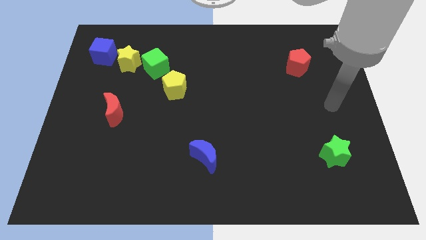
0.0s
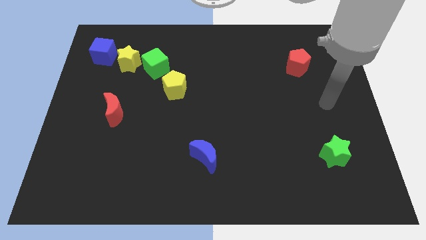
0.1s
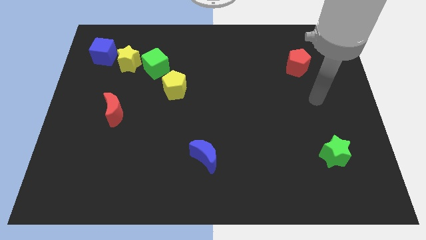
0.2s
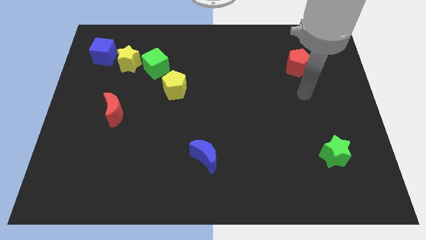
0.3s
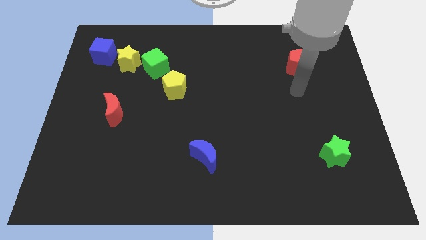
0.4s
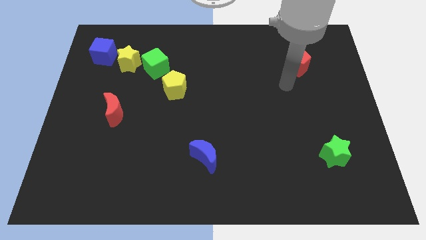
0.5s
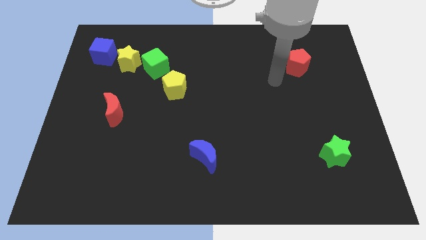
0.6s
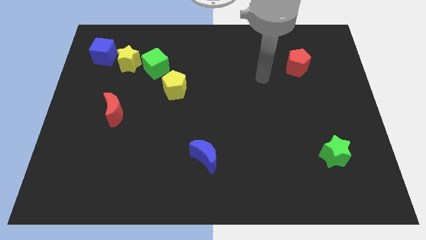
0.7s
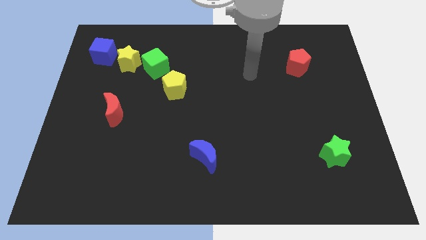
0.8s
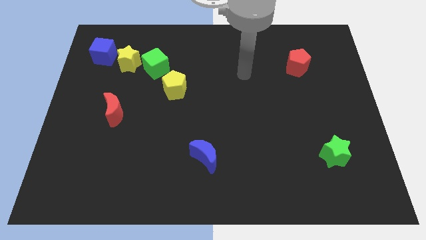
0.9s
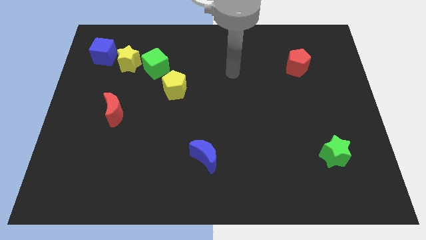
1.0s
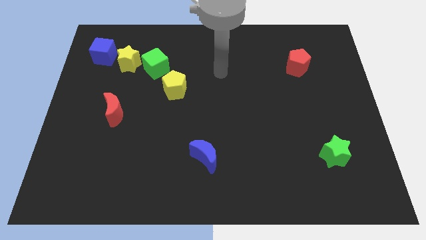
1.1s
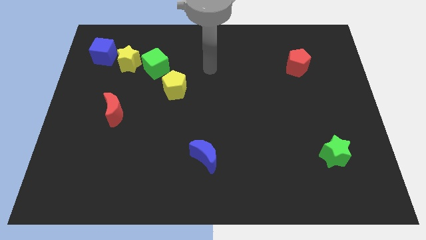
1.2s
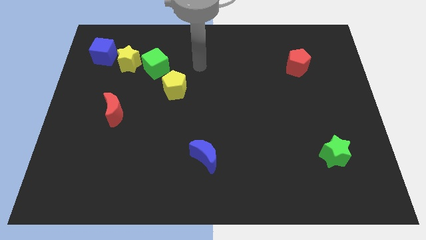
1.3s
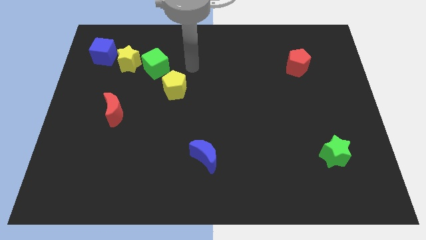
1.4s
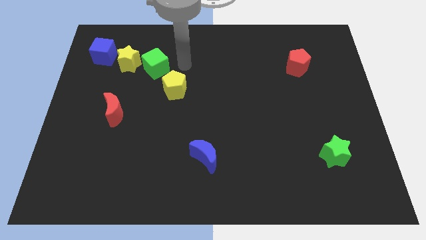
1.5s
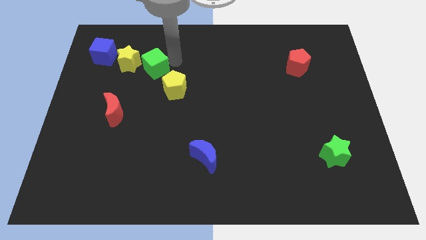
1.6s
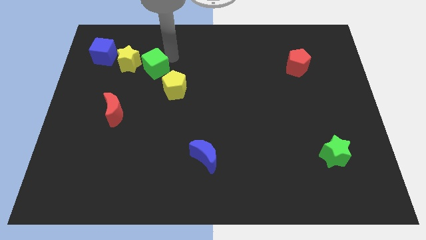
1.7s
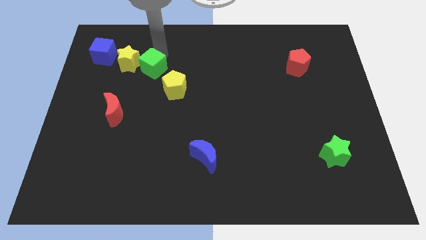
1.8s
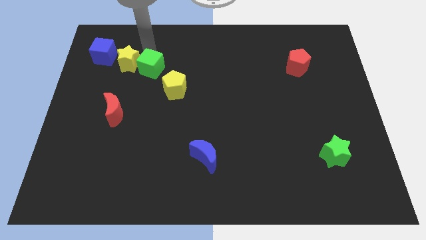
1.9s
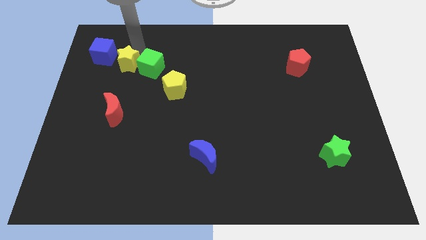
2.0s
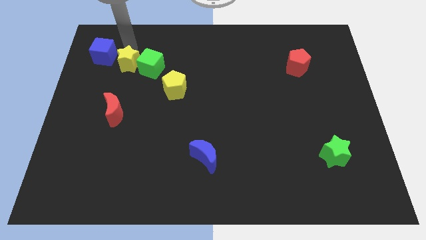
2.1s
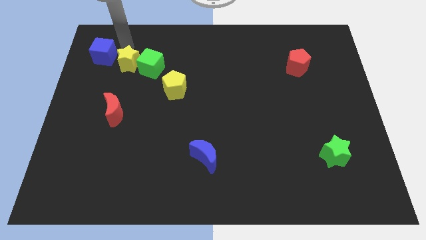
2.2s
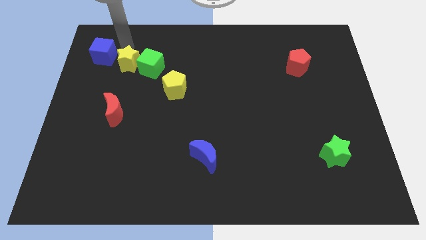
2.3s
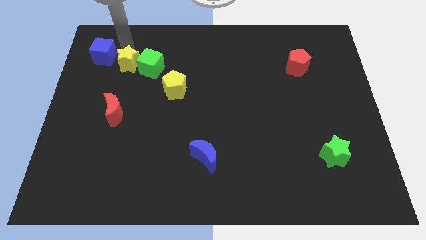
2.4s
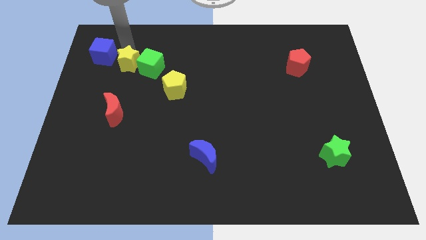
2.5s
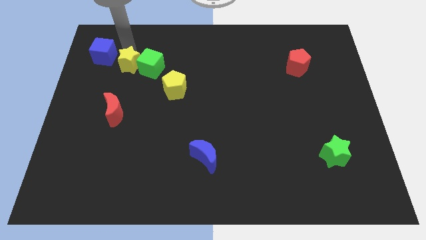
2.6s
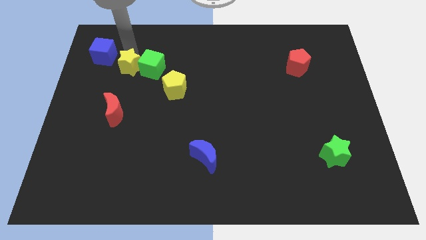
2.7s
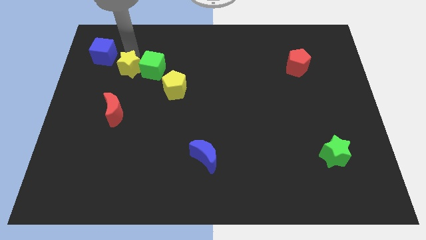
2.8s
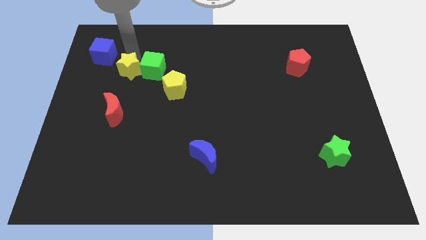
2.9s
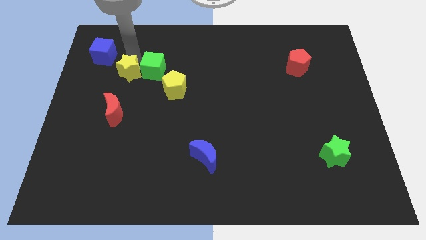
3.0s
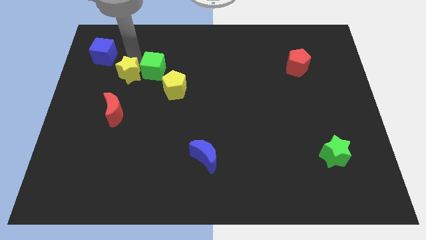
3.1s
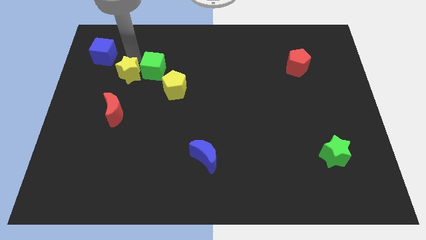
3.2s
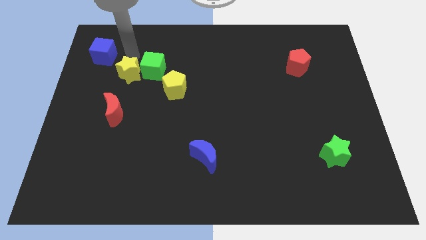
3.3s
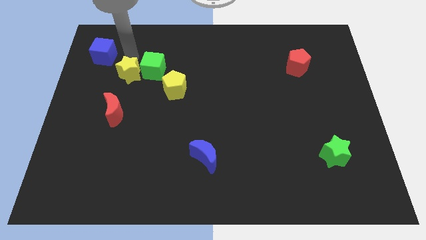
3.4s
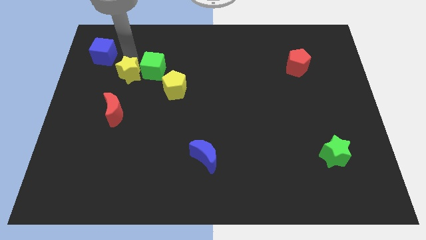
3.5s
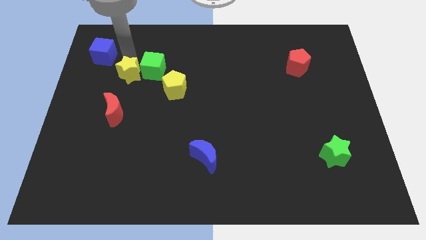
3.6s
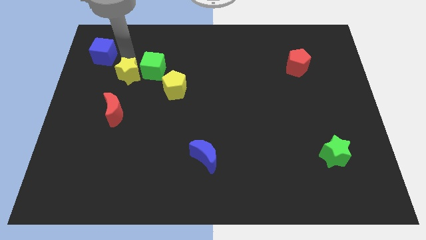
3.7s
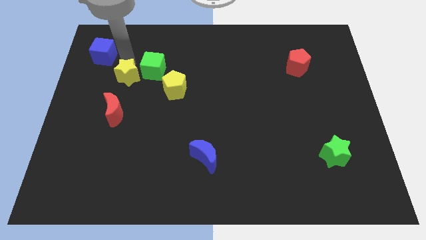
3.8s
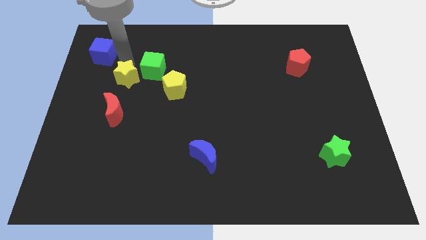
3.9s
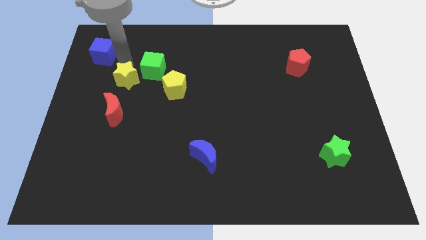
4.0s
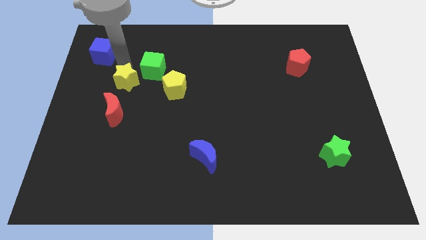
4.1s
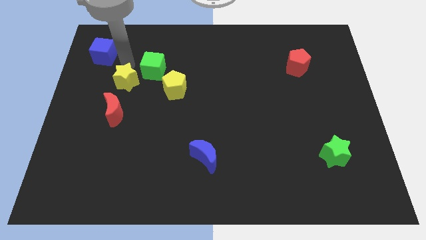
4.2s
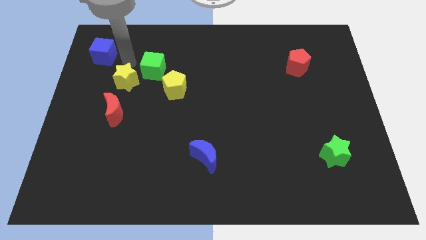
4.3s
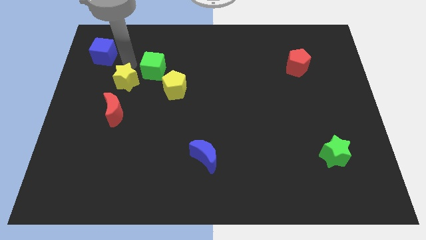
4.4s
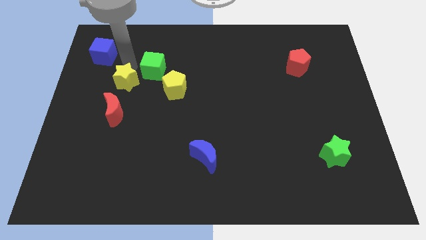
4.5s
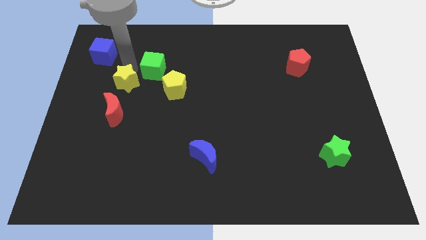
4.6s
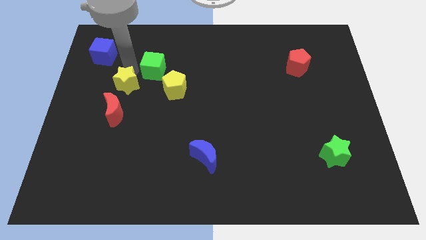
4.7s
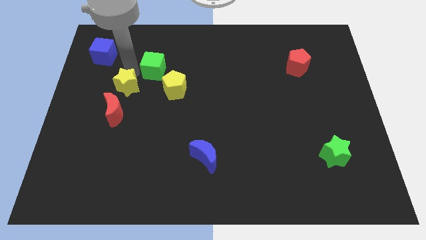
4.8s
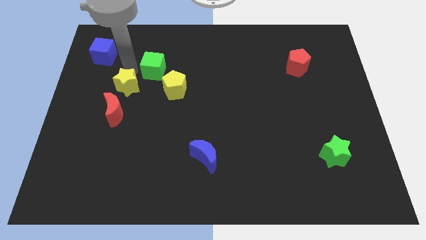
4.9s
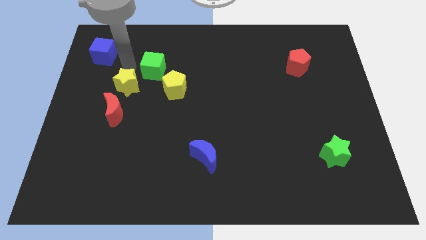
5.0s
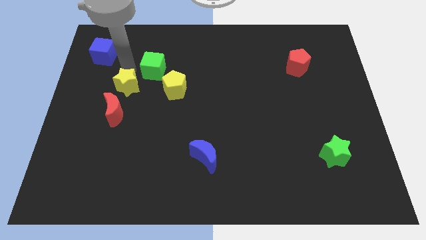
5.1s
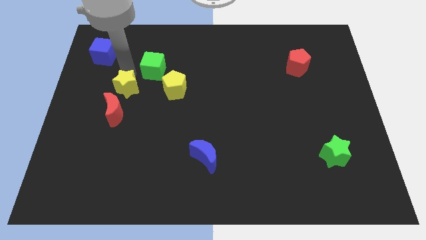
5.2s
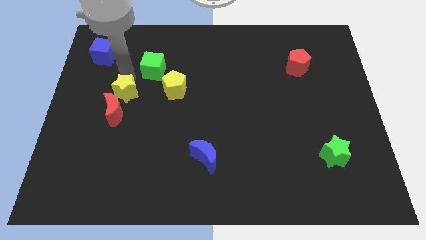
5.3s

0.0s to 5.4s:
move the yellow star away from the green cube and blue cube

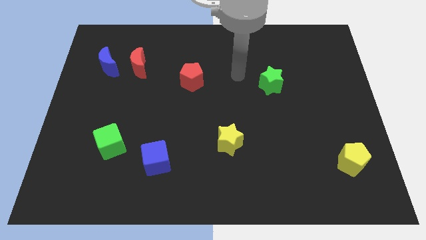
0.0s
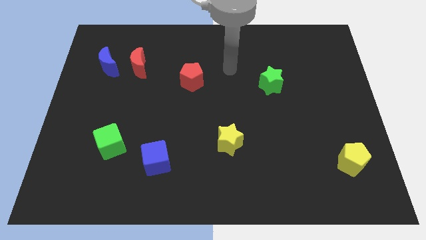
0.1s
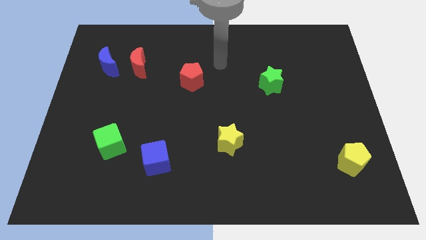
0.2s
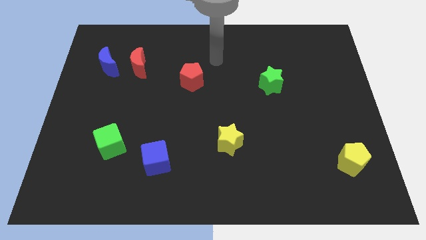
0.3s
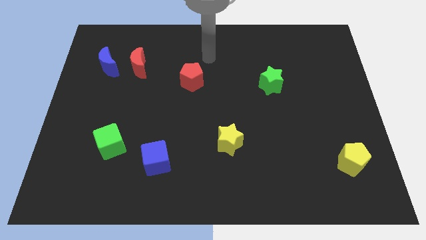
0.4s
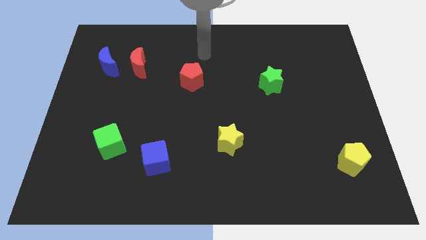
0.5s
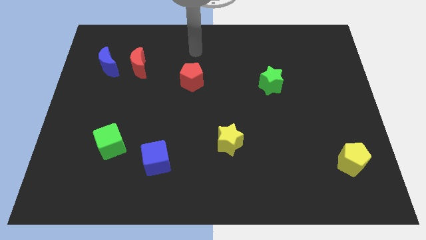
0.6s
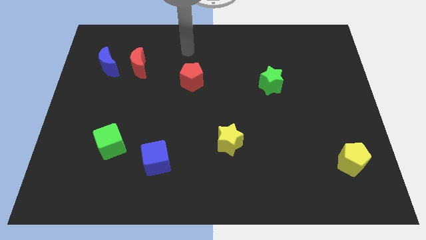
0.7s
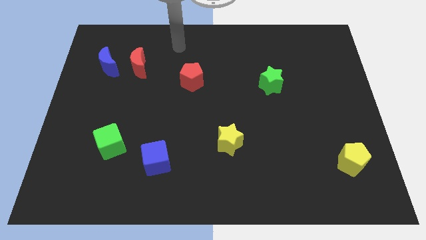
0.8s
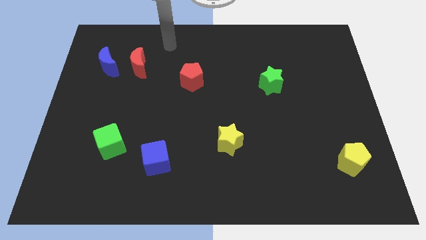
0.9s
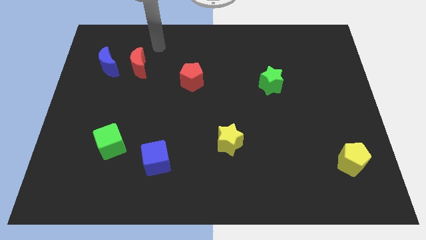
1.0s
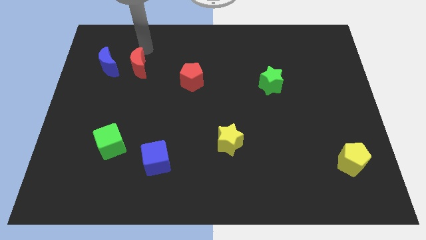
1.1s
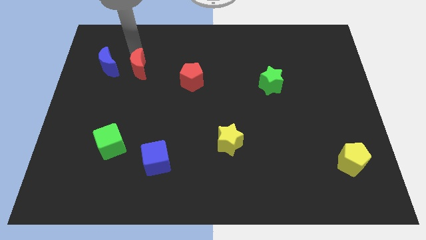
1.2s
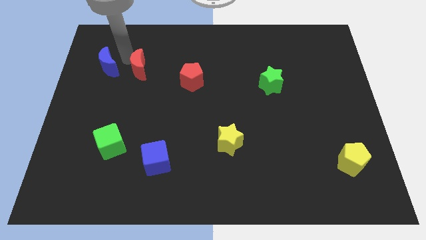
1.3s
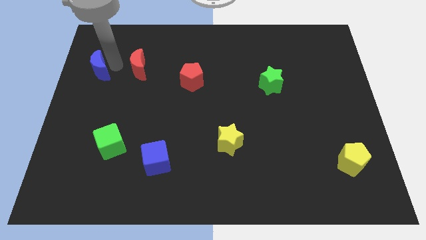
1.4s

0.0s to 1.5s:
separate the red moon from the blue moon

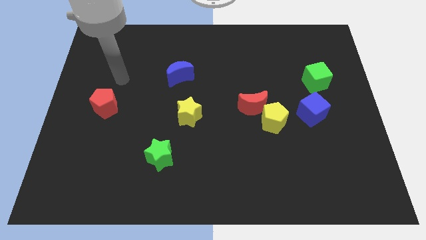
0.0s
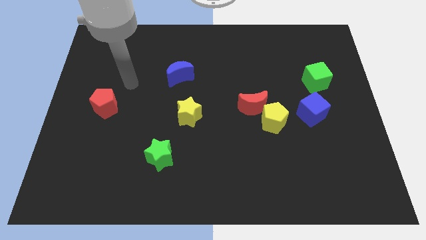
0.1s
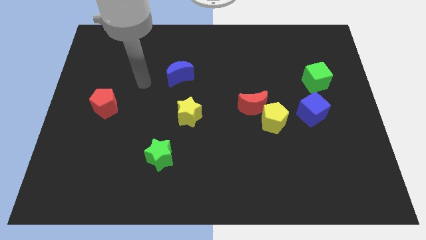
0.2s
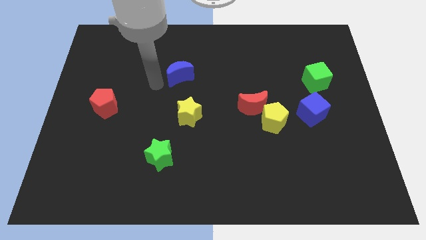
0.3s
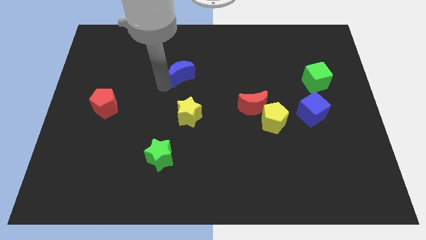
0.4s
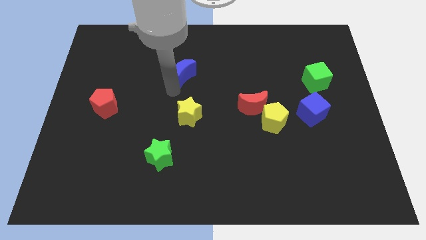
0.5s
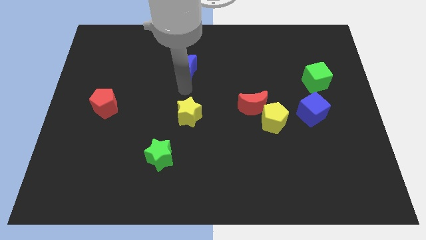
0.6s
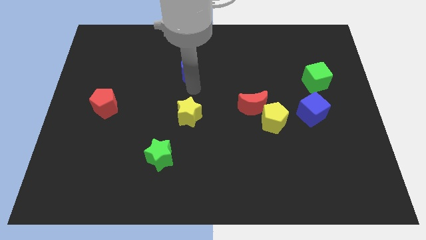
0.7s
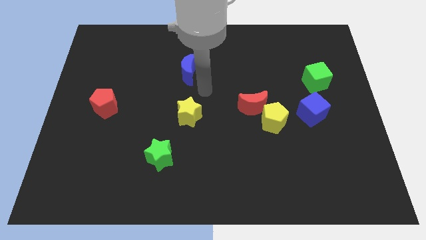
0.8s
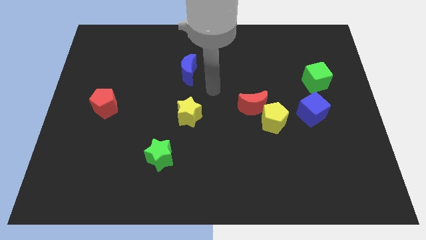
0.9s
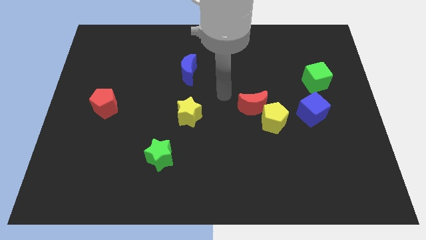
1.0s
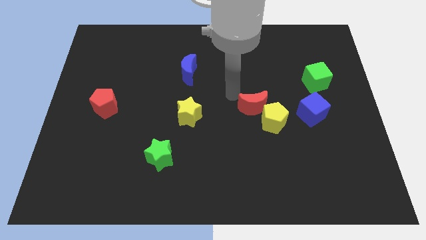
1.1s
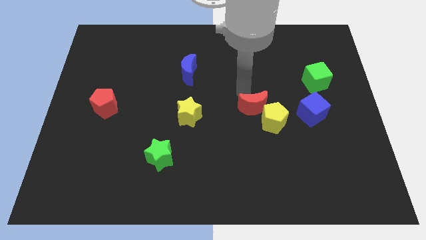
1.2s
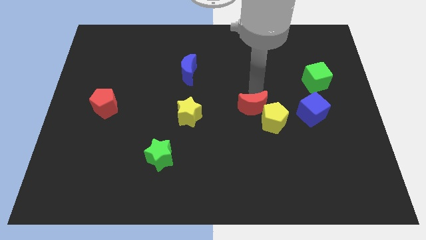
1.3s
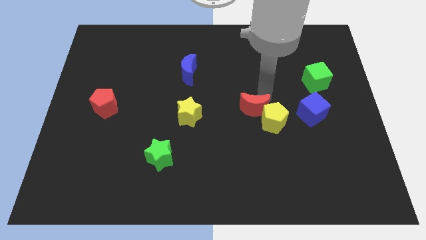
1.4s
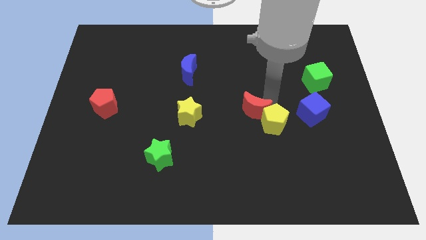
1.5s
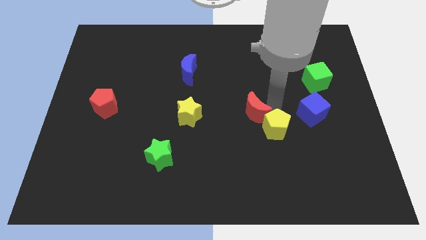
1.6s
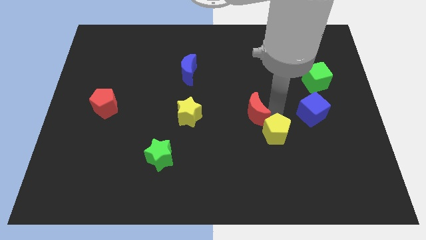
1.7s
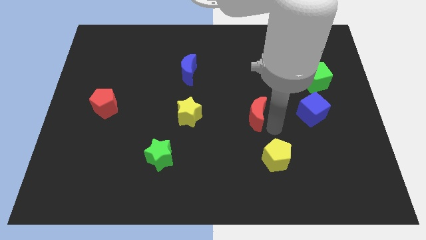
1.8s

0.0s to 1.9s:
pull the red moon apart from the yellow pentagon

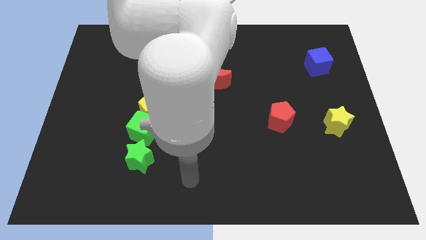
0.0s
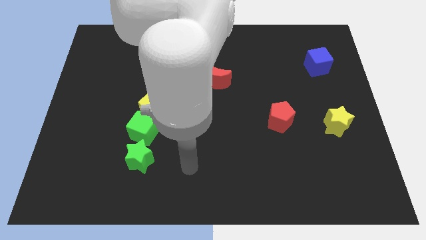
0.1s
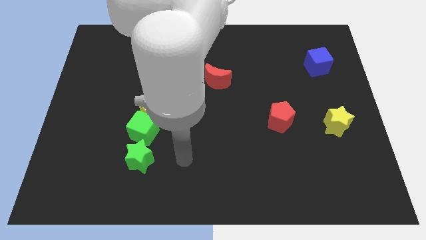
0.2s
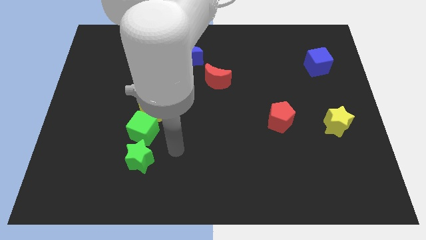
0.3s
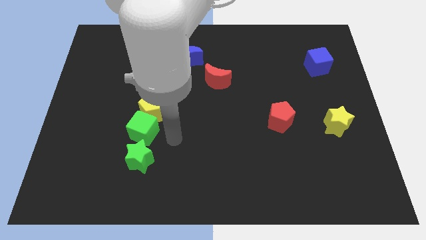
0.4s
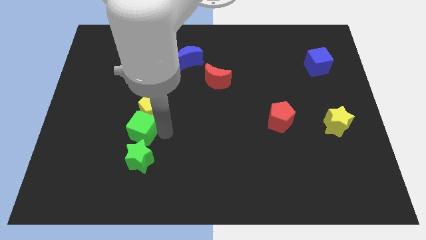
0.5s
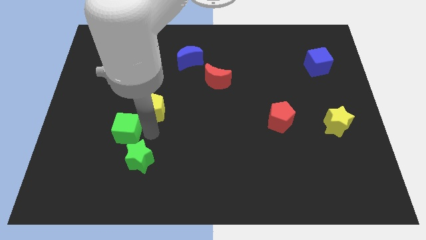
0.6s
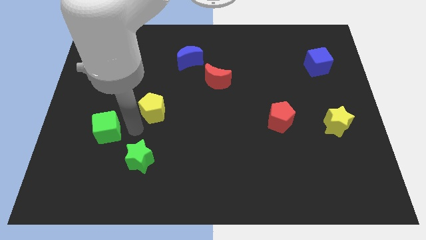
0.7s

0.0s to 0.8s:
pull the yellow pentagon apart from the green cube
